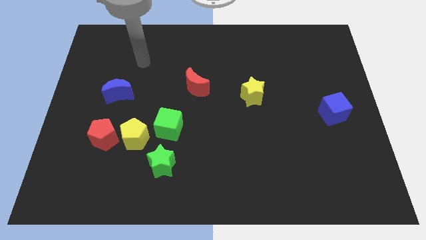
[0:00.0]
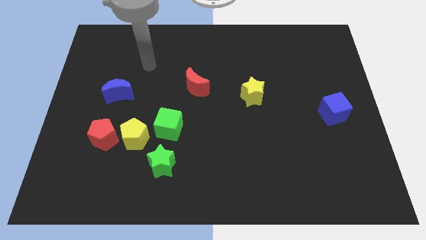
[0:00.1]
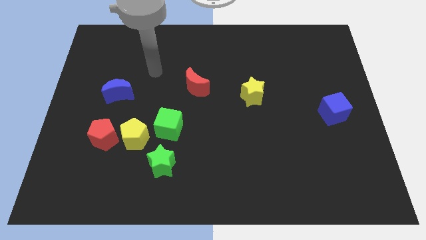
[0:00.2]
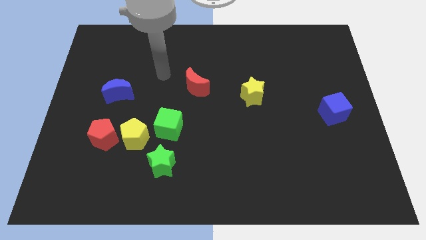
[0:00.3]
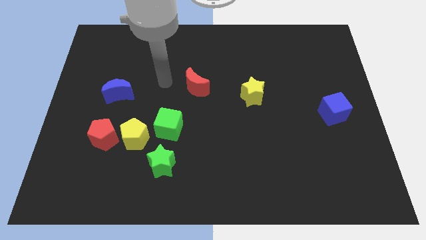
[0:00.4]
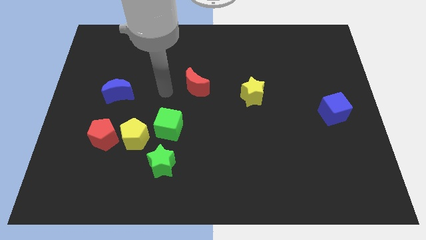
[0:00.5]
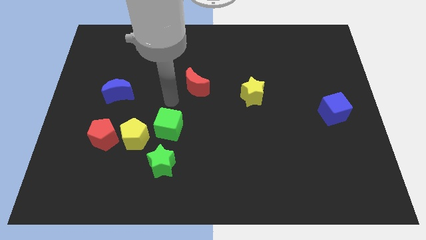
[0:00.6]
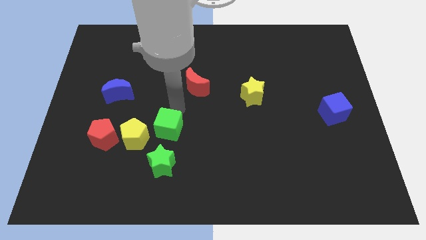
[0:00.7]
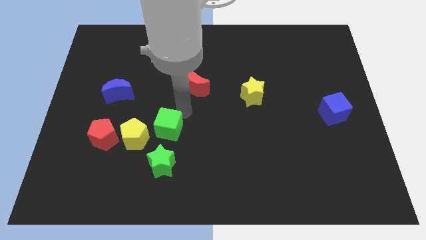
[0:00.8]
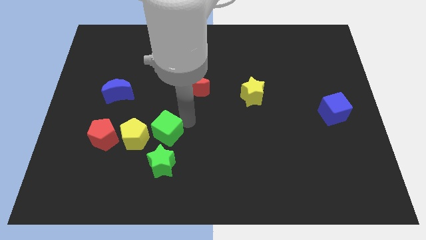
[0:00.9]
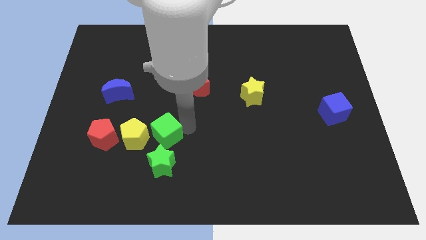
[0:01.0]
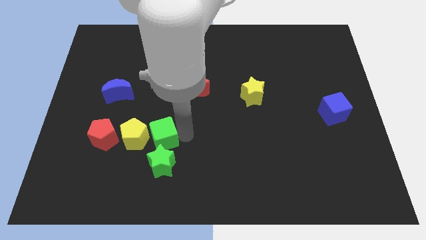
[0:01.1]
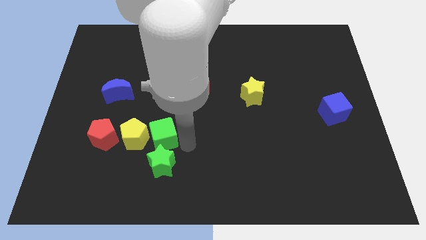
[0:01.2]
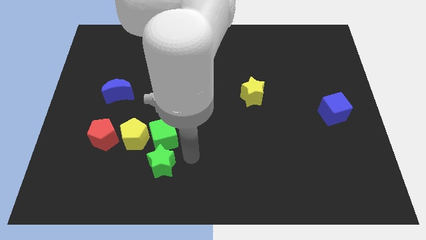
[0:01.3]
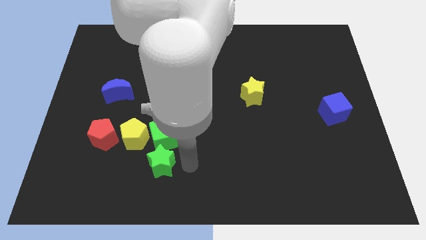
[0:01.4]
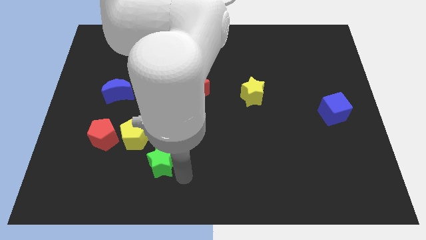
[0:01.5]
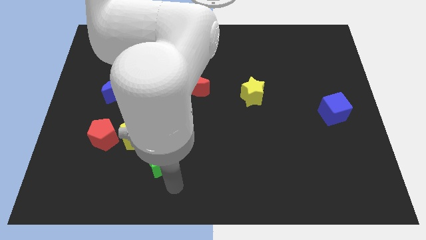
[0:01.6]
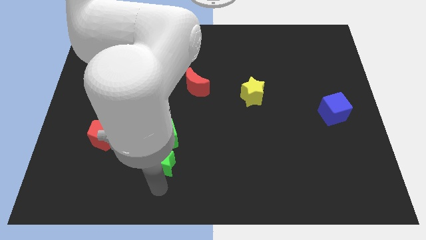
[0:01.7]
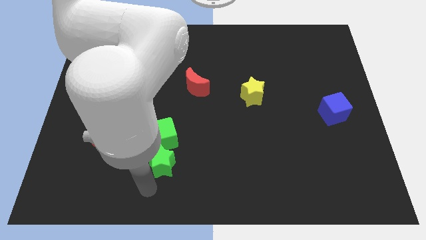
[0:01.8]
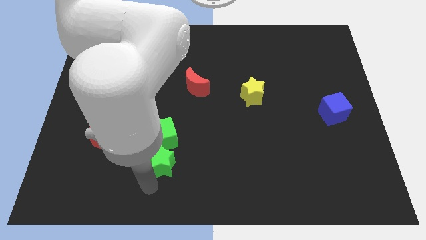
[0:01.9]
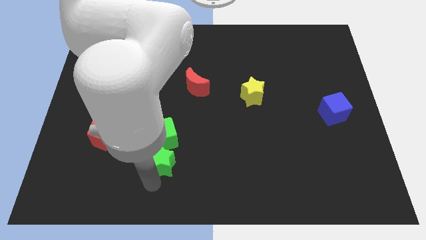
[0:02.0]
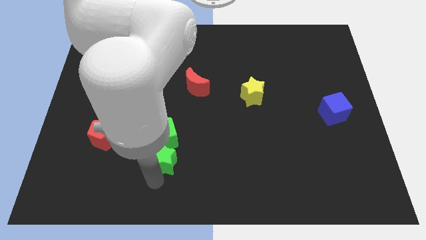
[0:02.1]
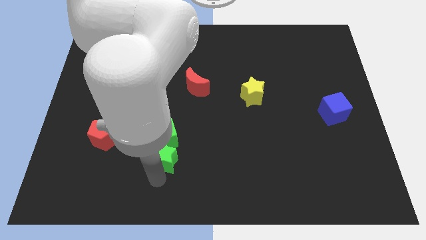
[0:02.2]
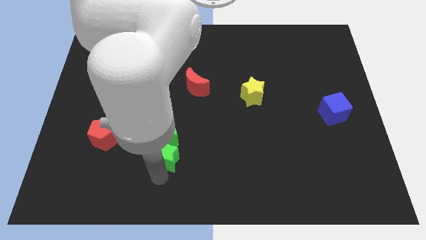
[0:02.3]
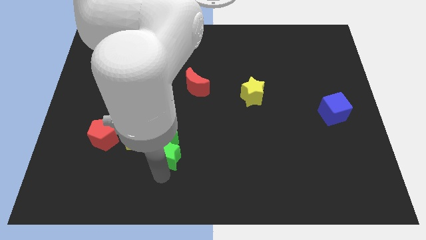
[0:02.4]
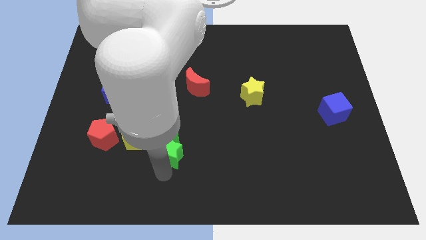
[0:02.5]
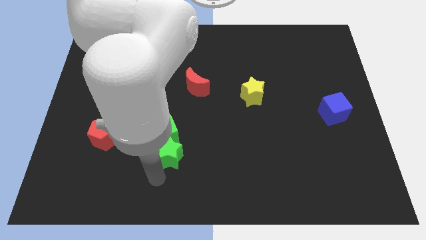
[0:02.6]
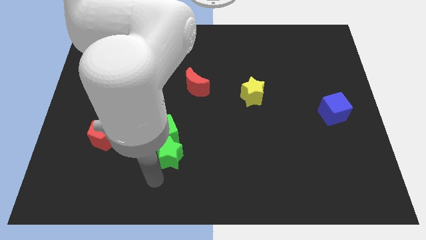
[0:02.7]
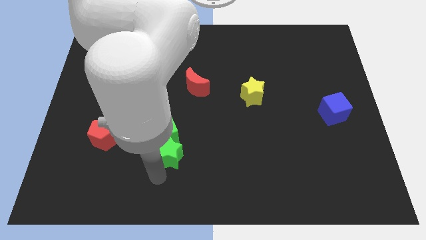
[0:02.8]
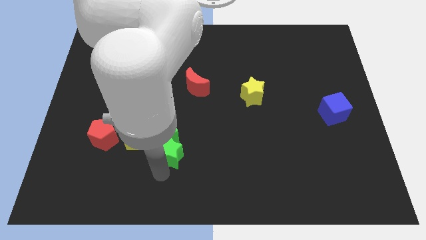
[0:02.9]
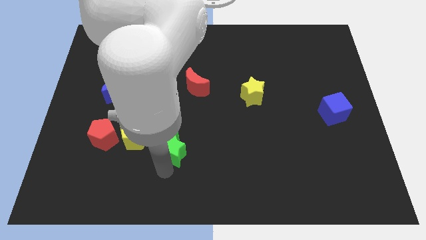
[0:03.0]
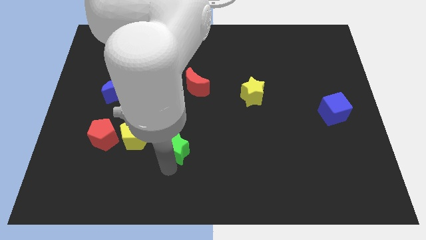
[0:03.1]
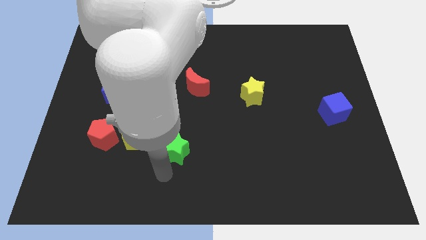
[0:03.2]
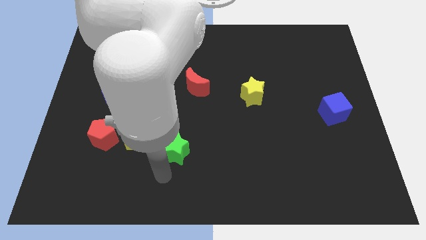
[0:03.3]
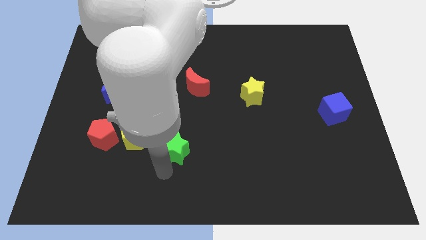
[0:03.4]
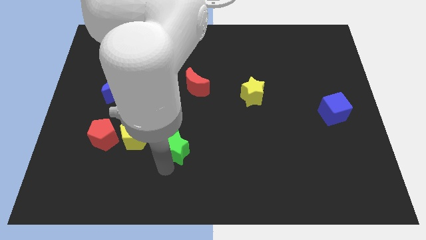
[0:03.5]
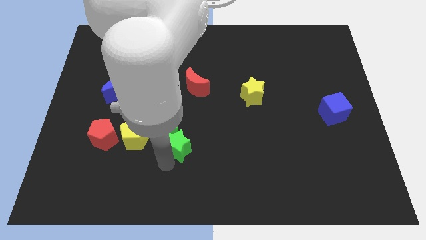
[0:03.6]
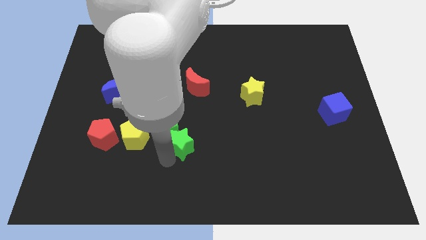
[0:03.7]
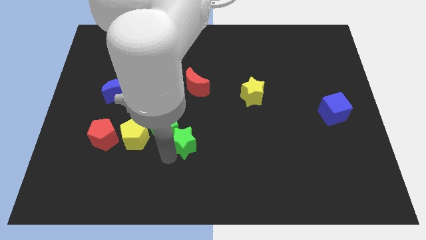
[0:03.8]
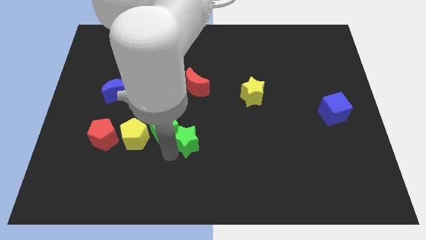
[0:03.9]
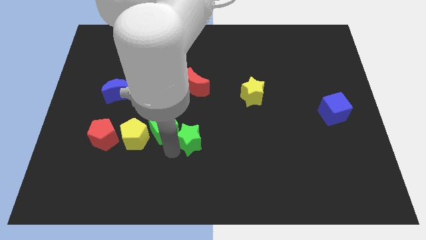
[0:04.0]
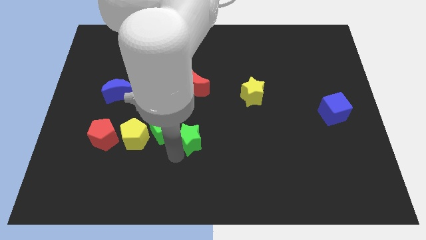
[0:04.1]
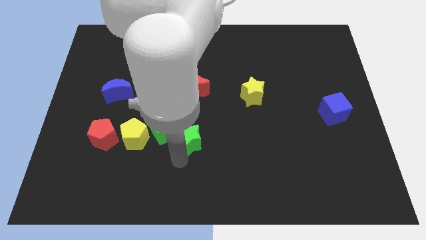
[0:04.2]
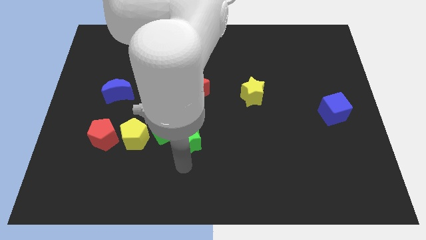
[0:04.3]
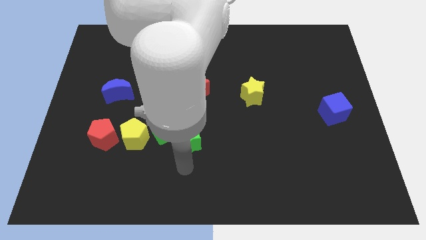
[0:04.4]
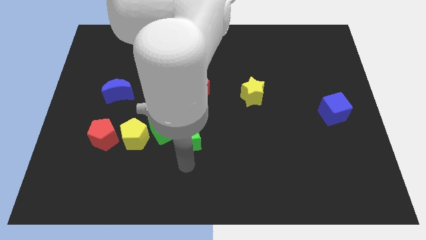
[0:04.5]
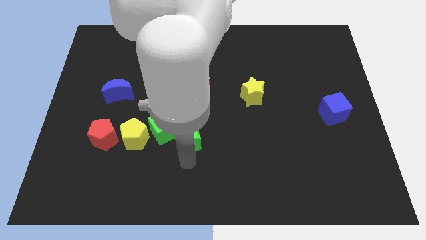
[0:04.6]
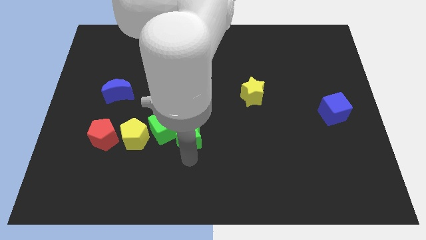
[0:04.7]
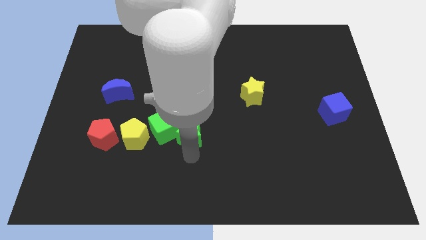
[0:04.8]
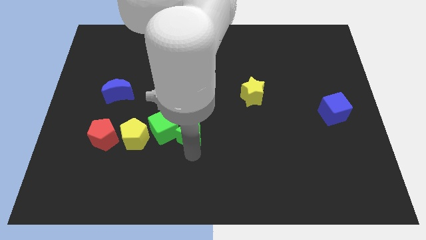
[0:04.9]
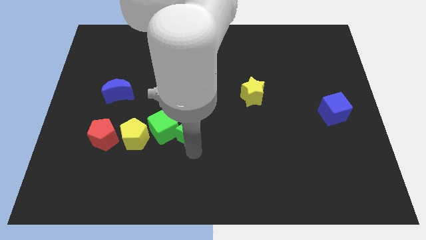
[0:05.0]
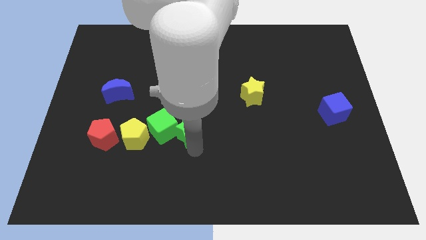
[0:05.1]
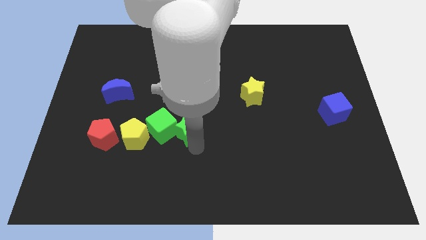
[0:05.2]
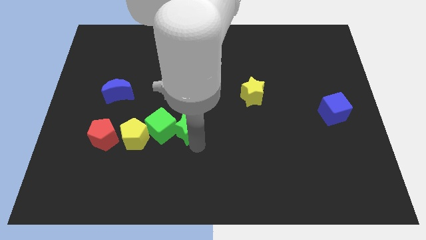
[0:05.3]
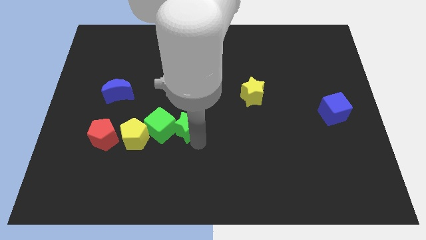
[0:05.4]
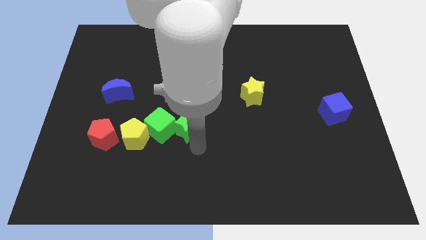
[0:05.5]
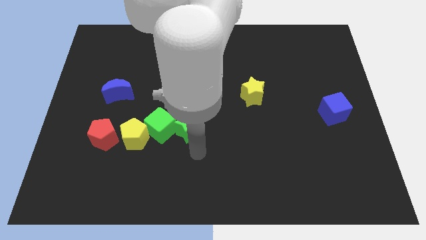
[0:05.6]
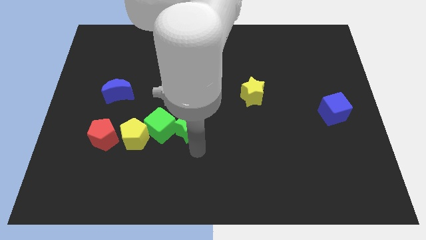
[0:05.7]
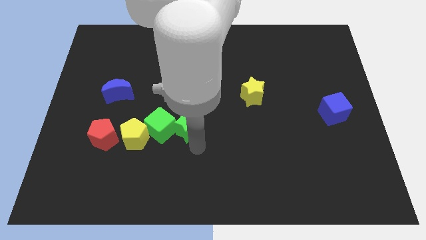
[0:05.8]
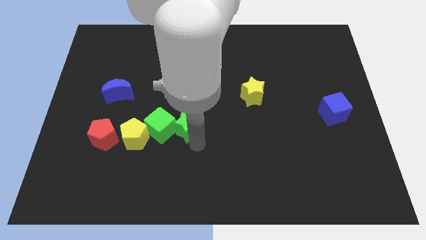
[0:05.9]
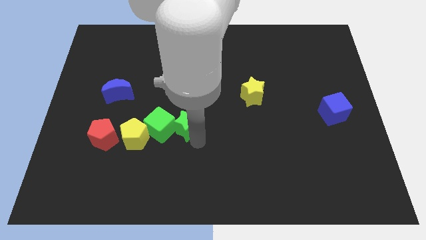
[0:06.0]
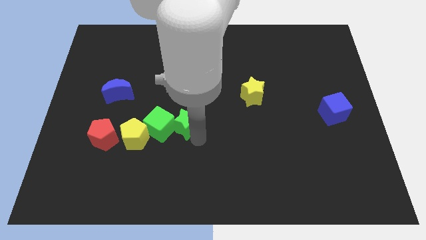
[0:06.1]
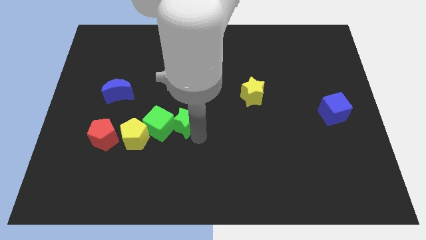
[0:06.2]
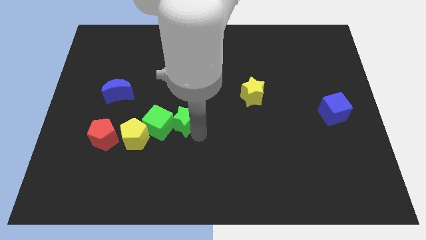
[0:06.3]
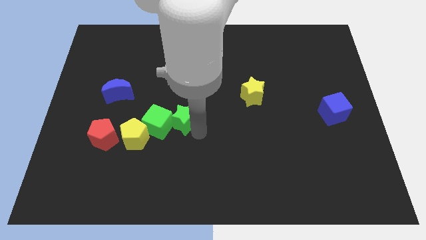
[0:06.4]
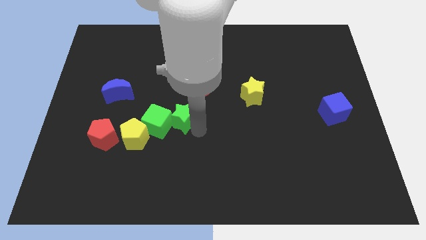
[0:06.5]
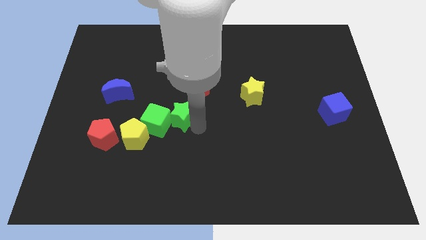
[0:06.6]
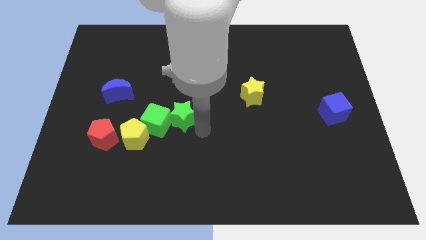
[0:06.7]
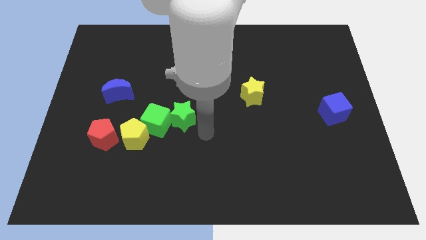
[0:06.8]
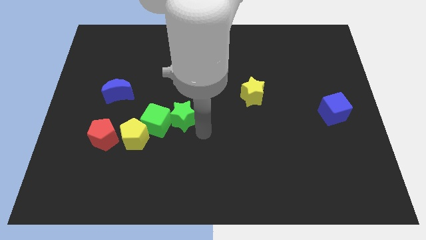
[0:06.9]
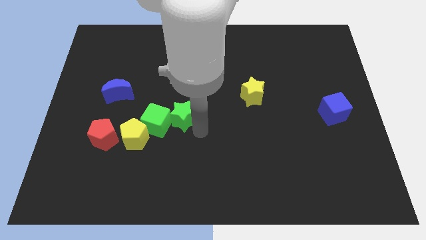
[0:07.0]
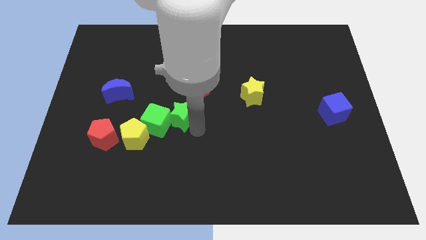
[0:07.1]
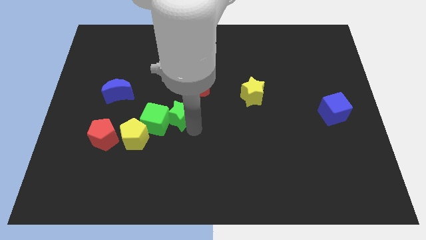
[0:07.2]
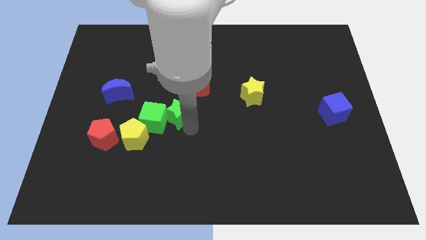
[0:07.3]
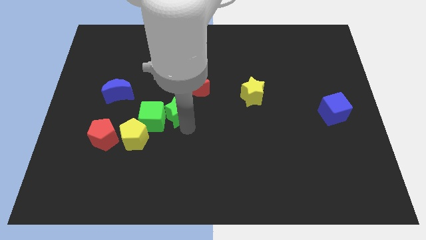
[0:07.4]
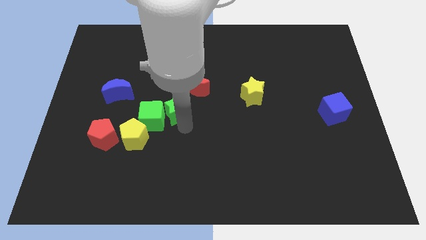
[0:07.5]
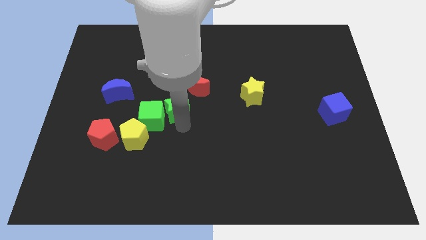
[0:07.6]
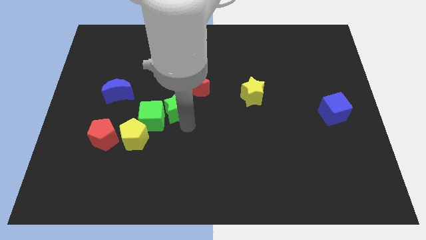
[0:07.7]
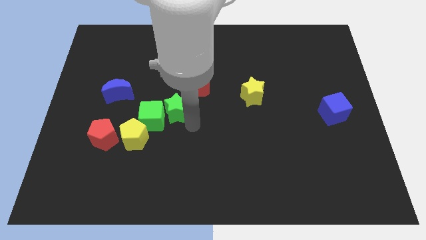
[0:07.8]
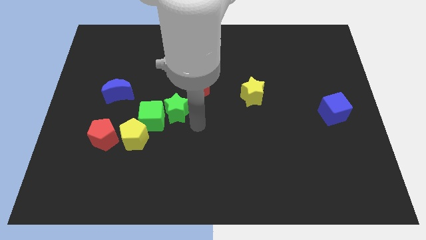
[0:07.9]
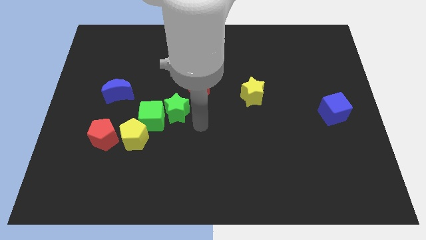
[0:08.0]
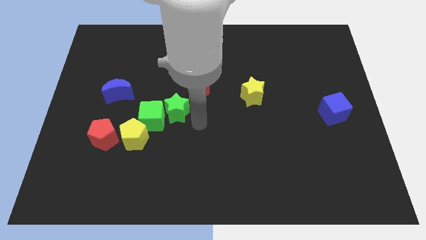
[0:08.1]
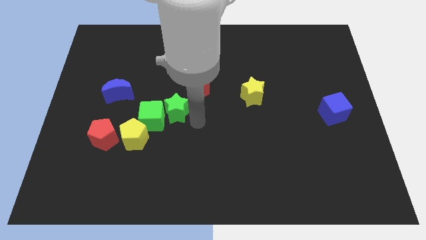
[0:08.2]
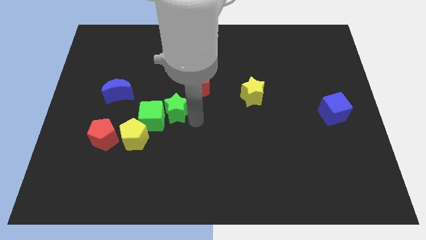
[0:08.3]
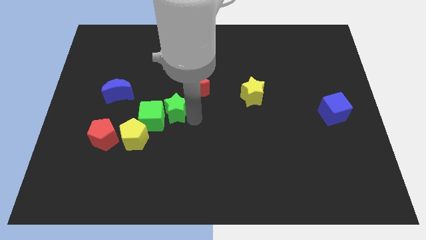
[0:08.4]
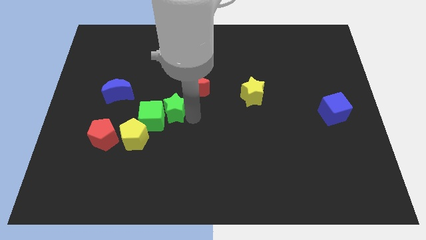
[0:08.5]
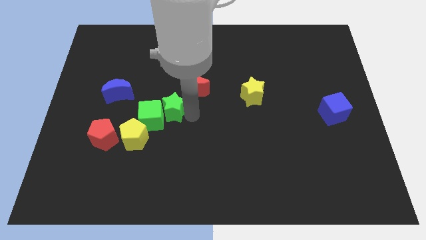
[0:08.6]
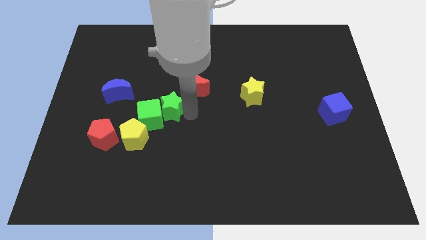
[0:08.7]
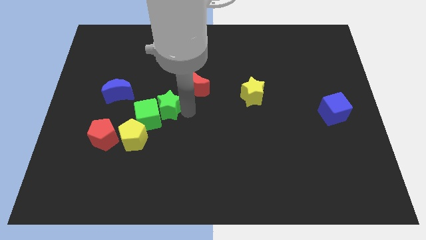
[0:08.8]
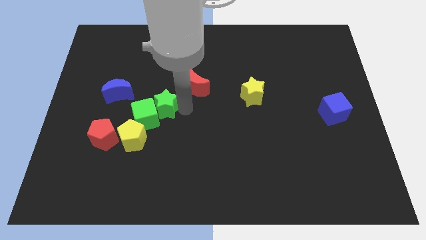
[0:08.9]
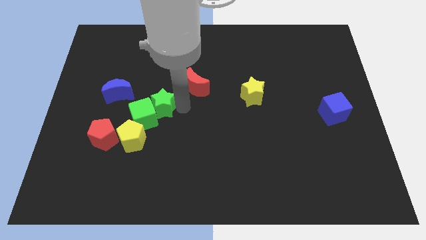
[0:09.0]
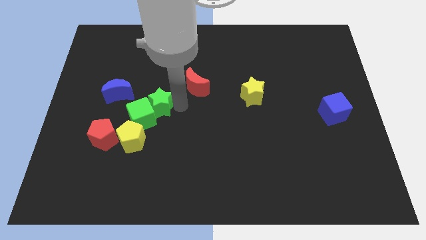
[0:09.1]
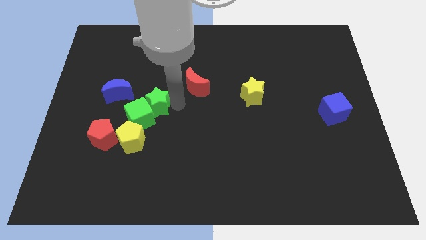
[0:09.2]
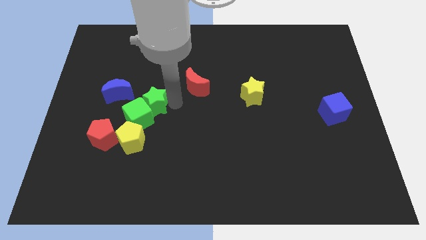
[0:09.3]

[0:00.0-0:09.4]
slide the green star above the yellow pentagon
